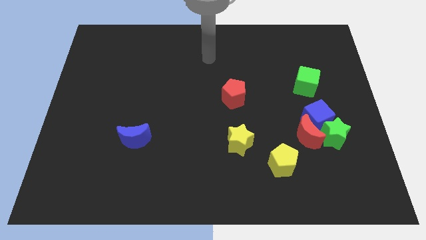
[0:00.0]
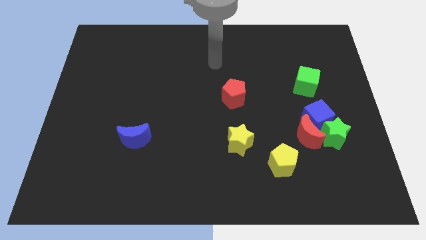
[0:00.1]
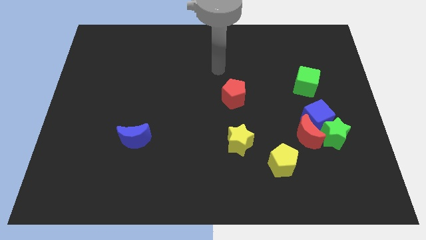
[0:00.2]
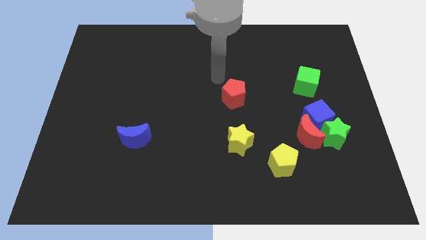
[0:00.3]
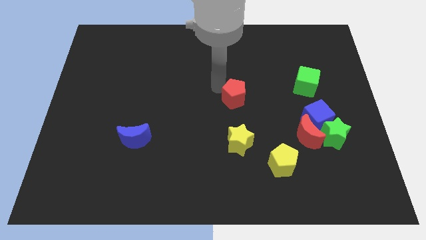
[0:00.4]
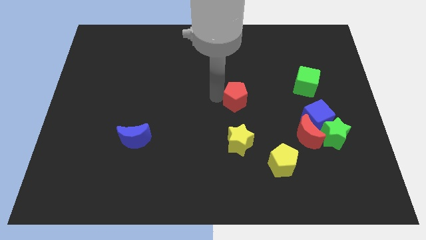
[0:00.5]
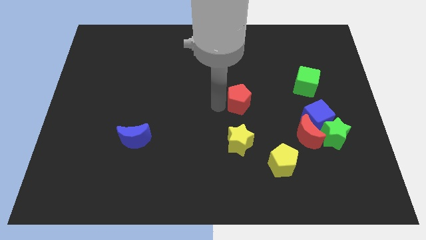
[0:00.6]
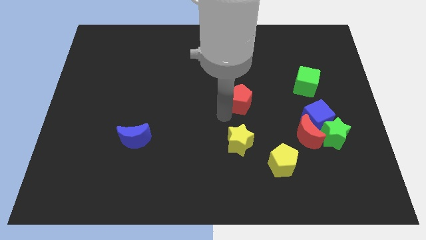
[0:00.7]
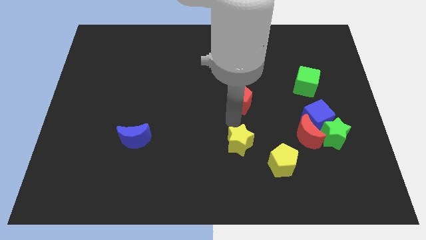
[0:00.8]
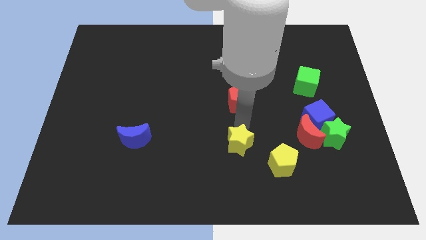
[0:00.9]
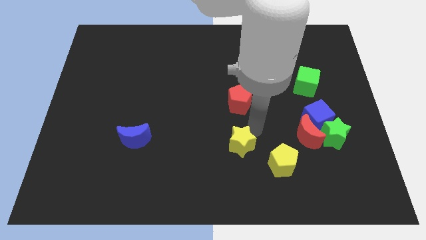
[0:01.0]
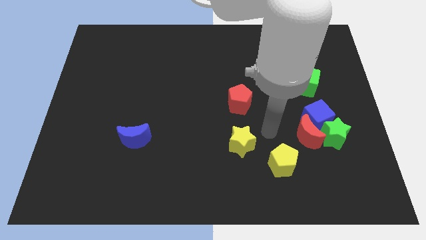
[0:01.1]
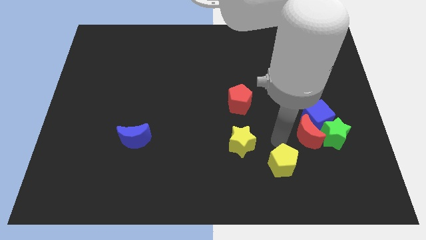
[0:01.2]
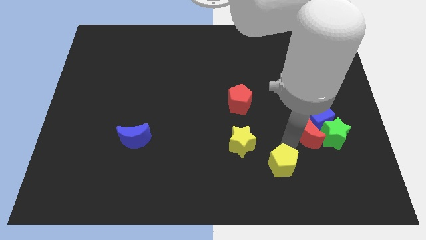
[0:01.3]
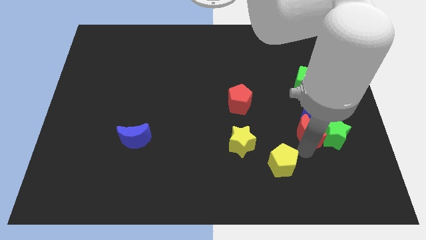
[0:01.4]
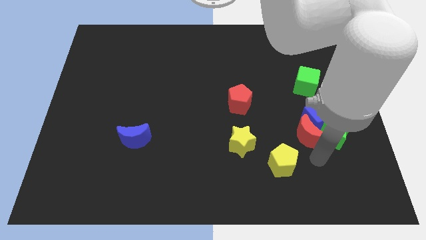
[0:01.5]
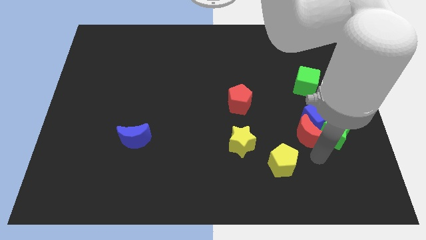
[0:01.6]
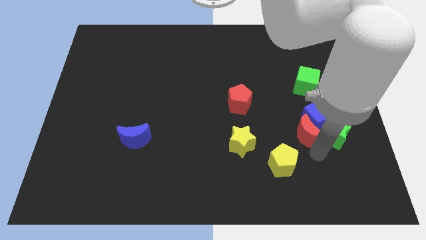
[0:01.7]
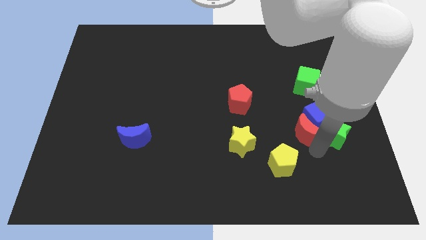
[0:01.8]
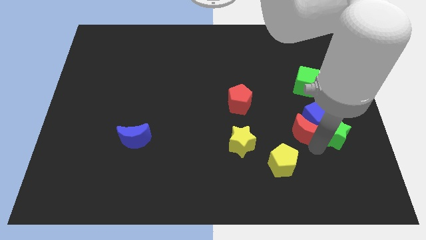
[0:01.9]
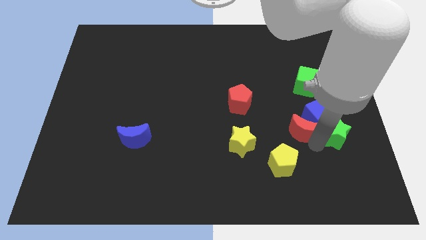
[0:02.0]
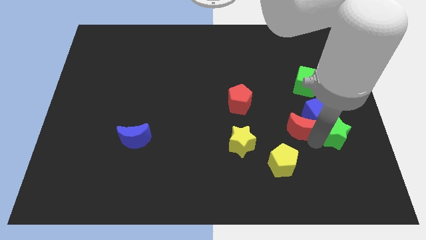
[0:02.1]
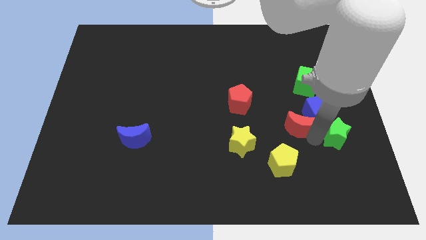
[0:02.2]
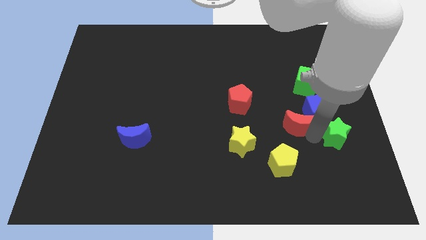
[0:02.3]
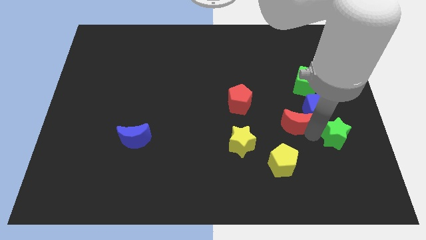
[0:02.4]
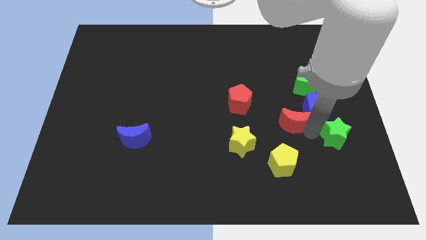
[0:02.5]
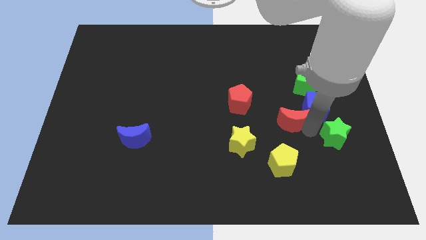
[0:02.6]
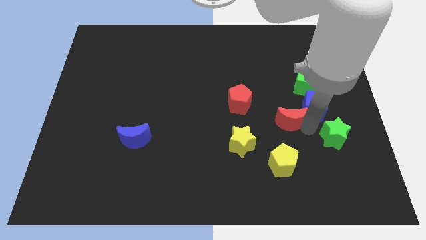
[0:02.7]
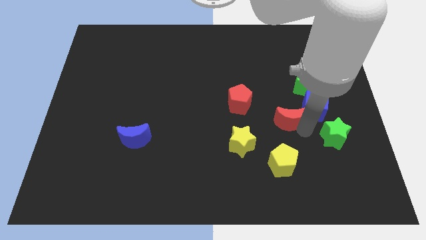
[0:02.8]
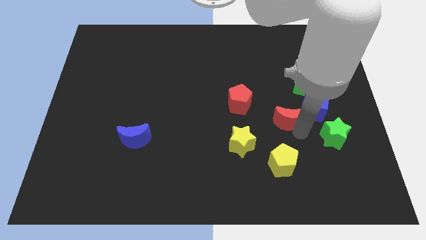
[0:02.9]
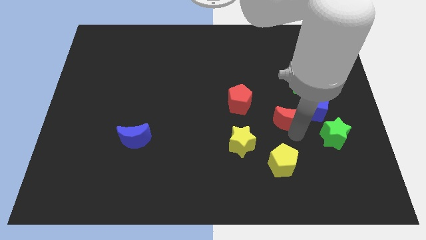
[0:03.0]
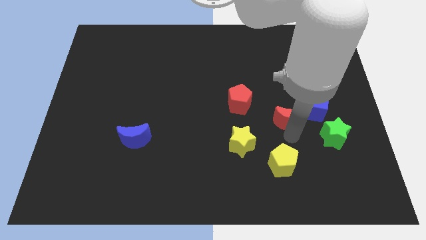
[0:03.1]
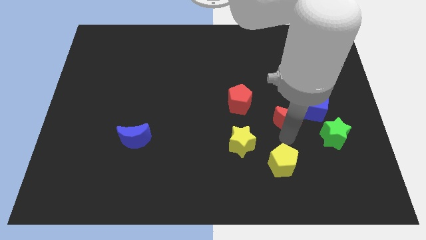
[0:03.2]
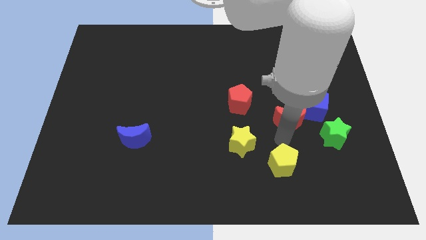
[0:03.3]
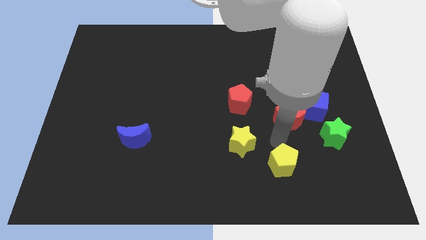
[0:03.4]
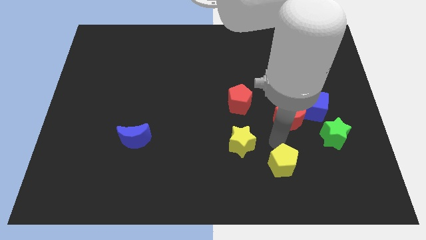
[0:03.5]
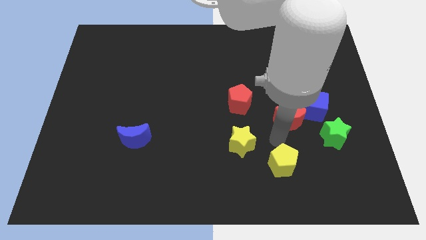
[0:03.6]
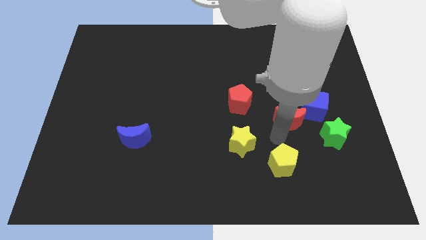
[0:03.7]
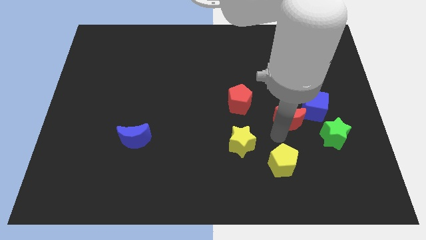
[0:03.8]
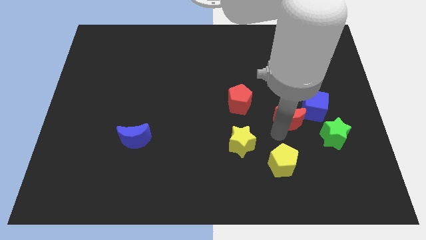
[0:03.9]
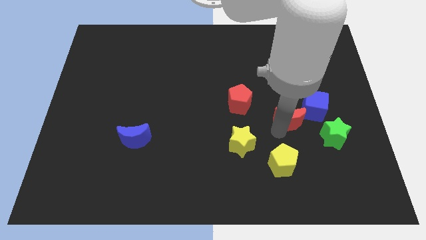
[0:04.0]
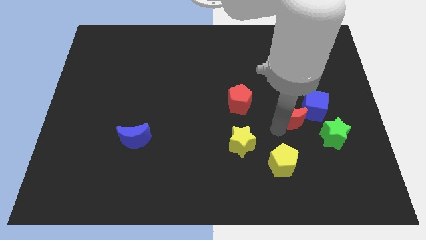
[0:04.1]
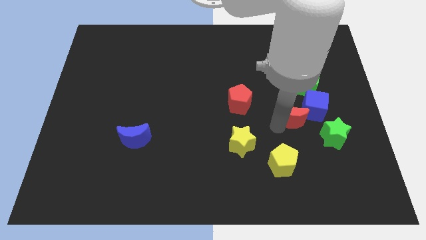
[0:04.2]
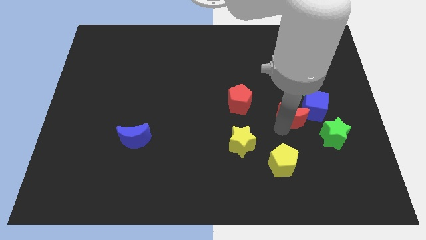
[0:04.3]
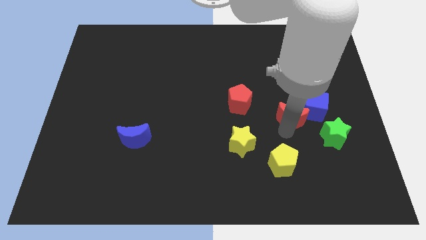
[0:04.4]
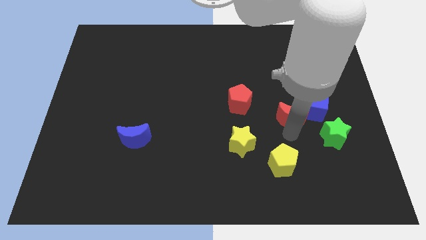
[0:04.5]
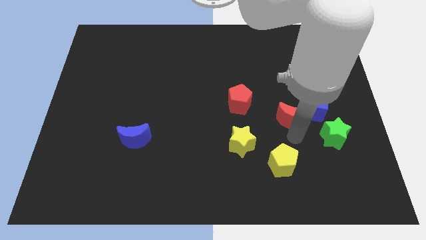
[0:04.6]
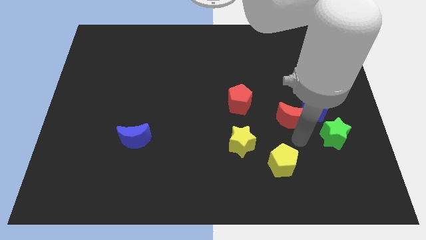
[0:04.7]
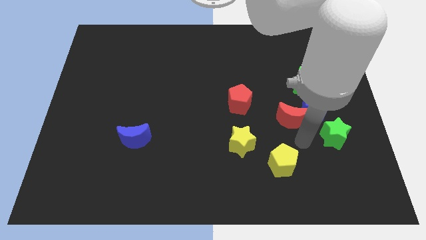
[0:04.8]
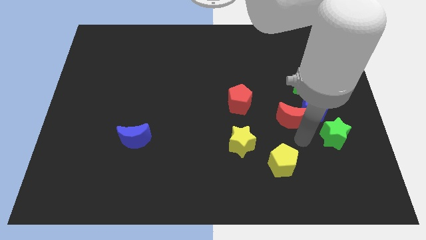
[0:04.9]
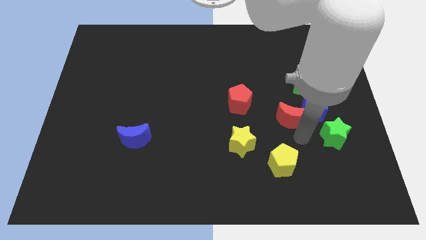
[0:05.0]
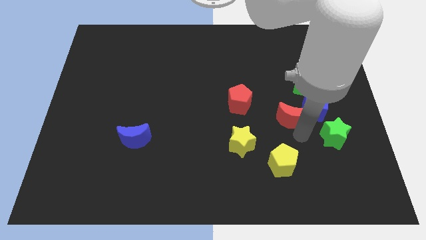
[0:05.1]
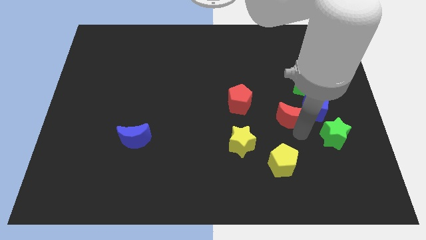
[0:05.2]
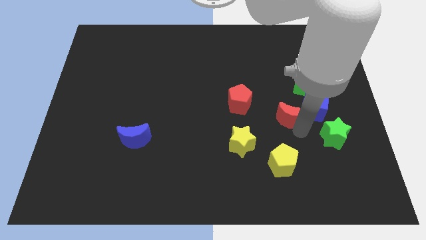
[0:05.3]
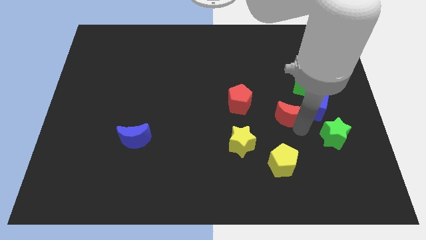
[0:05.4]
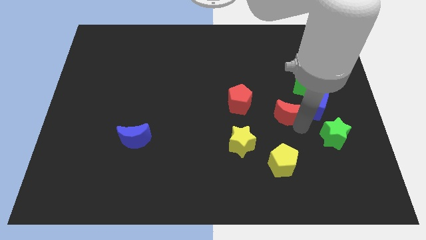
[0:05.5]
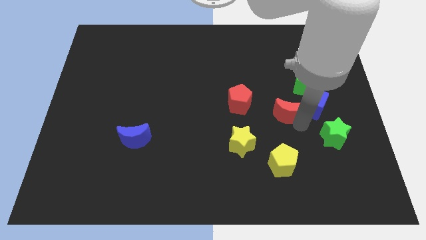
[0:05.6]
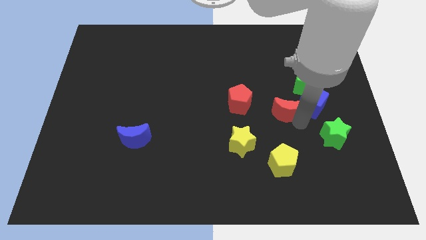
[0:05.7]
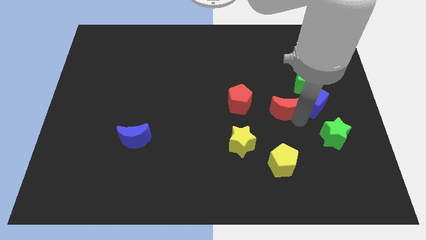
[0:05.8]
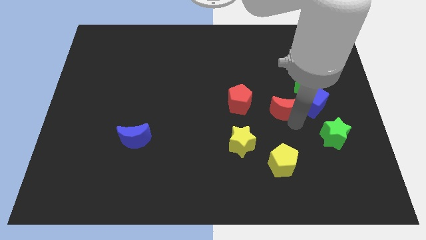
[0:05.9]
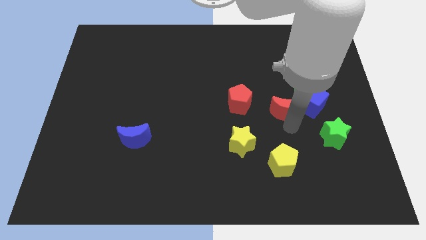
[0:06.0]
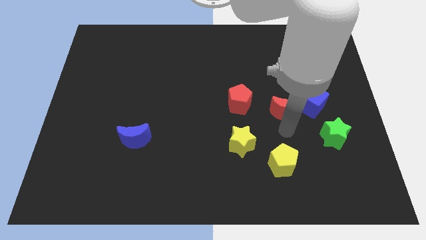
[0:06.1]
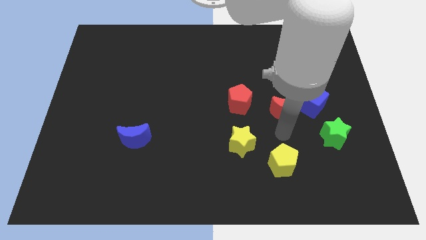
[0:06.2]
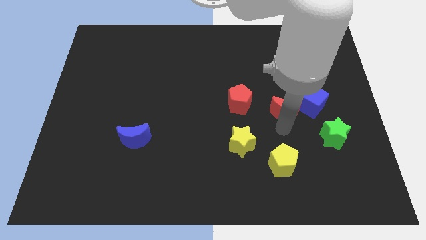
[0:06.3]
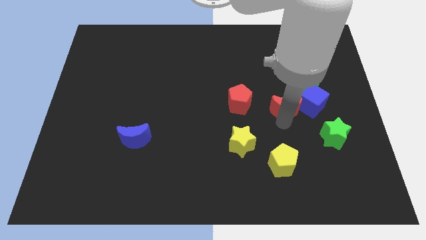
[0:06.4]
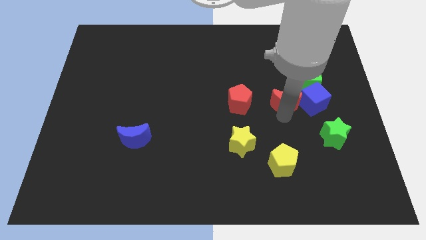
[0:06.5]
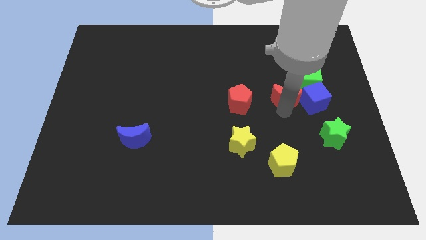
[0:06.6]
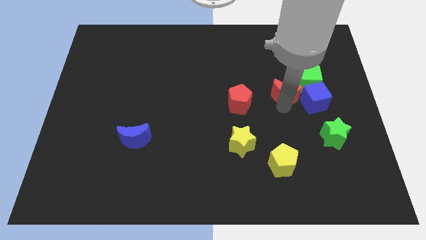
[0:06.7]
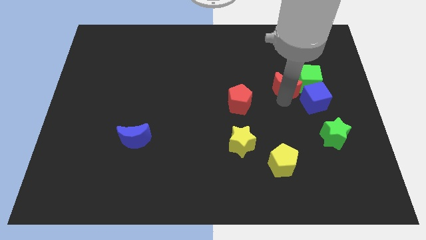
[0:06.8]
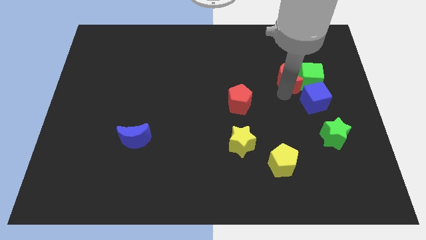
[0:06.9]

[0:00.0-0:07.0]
put the red moon to the top left side of the green cube

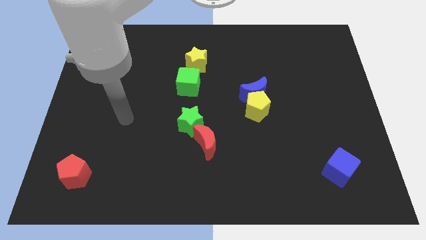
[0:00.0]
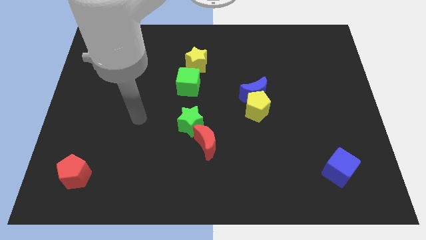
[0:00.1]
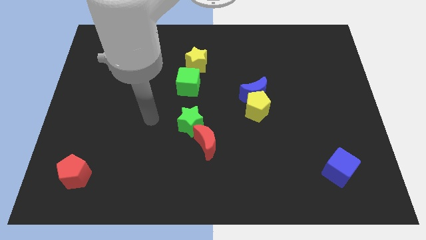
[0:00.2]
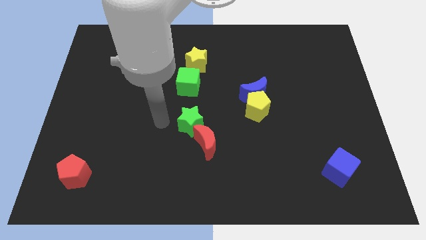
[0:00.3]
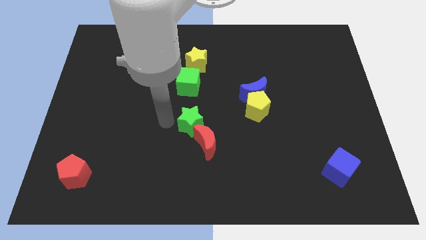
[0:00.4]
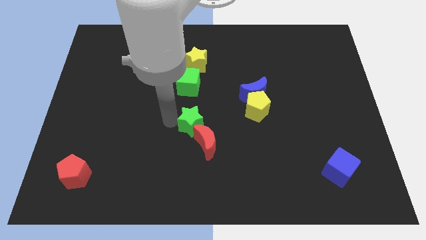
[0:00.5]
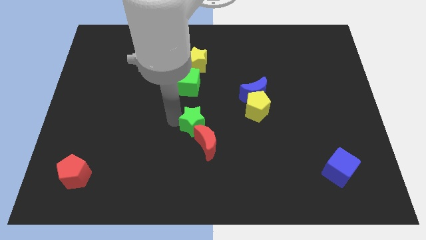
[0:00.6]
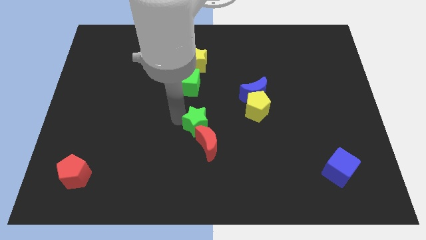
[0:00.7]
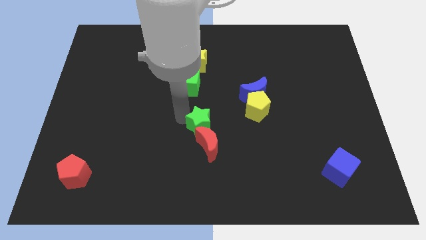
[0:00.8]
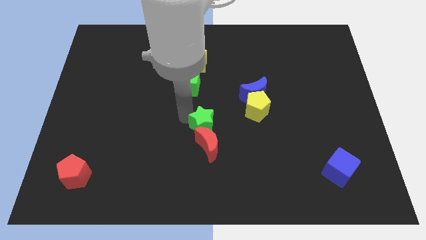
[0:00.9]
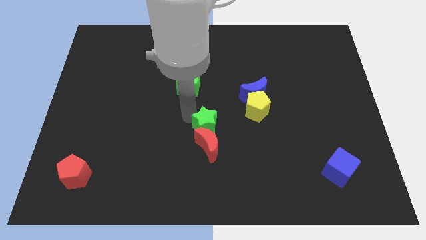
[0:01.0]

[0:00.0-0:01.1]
put the green star diagonally up and to the right of the red moon
